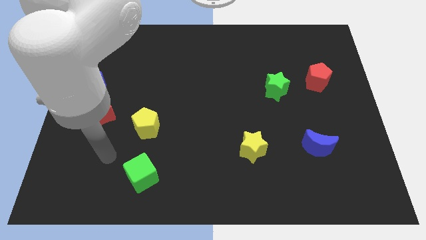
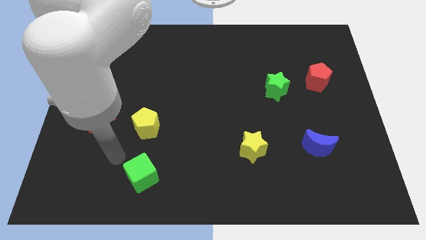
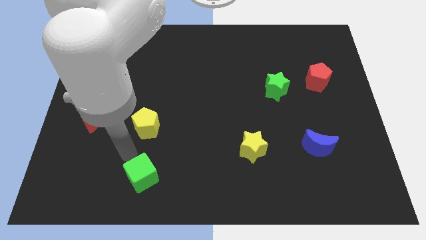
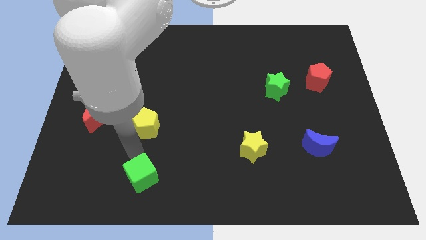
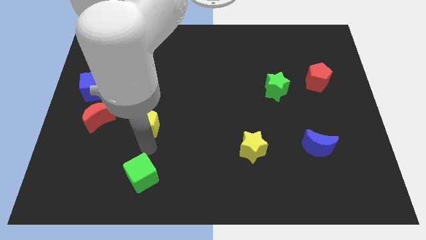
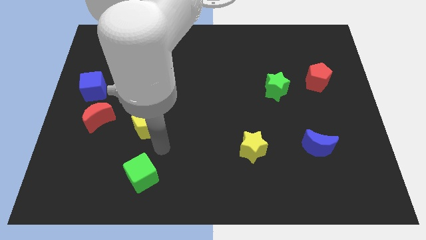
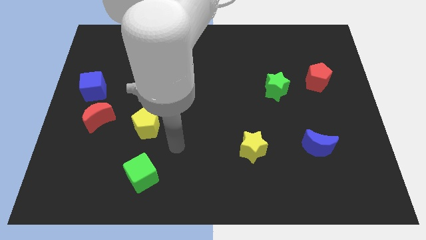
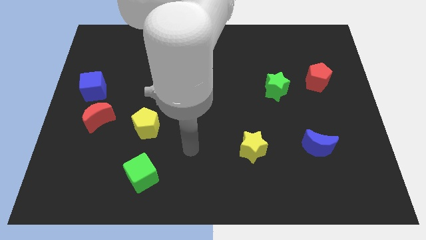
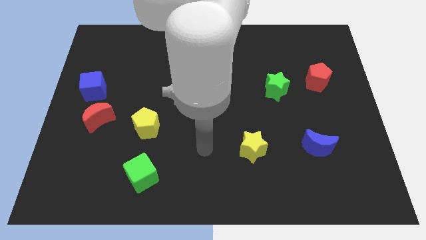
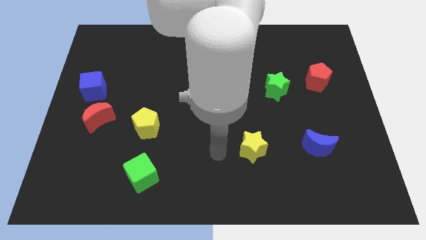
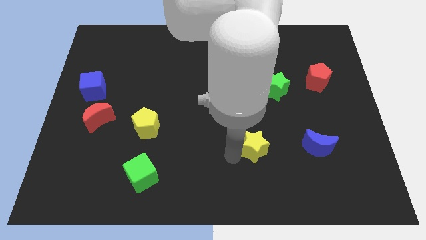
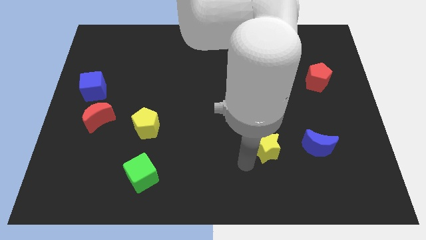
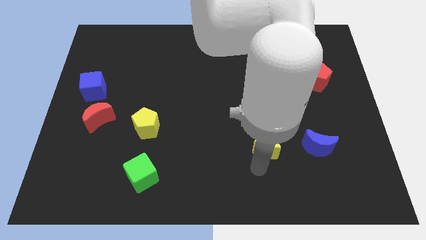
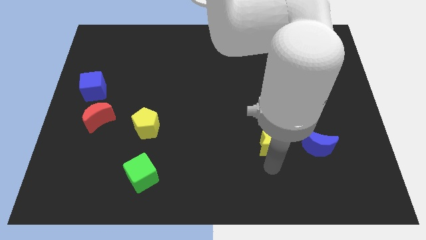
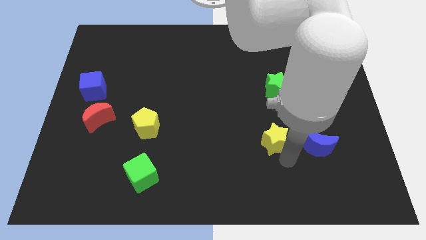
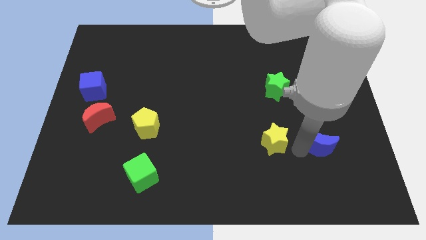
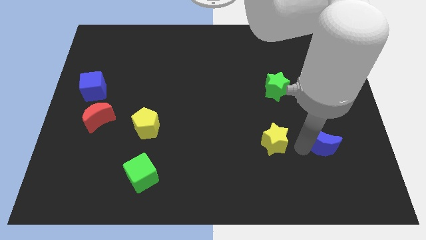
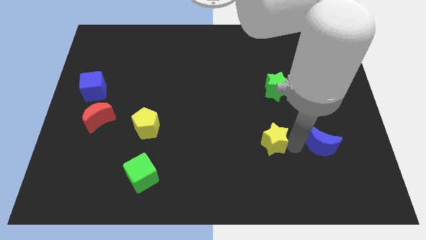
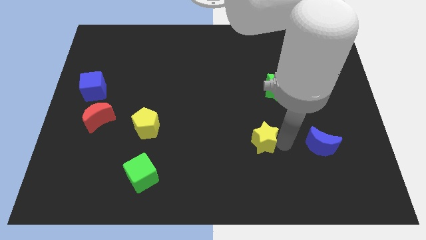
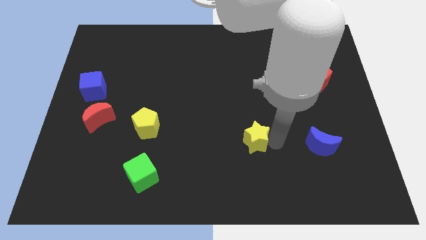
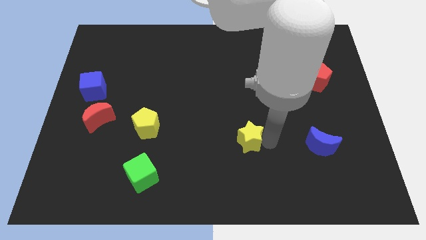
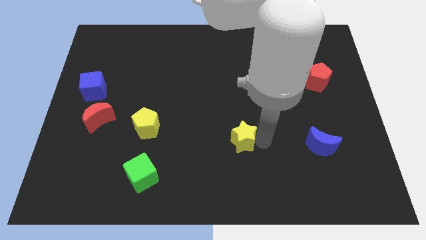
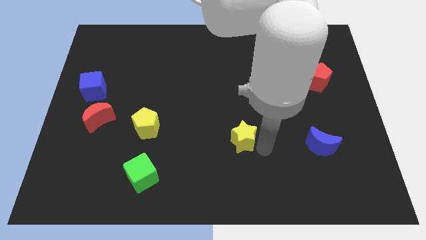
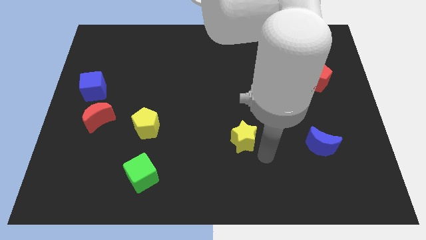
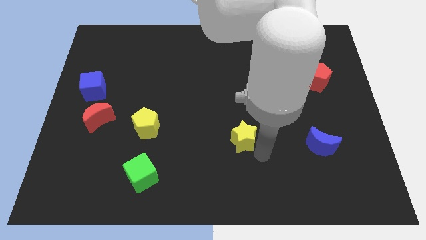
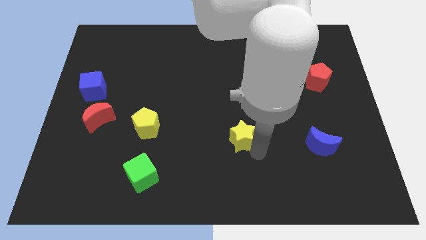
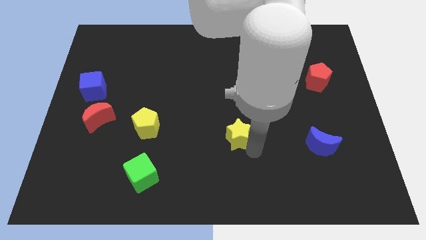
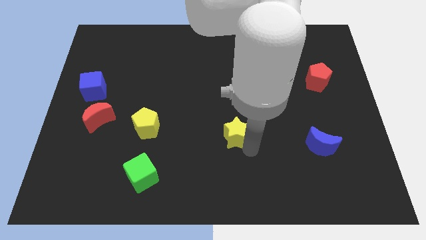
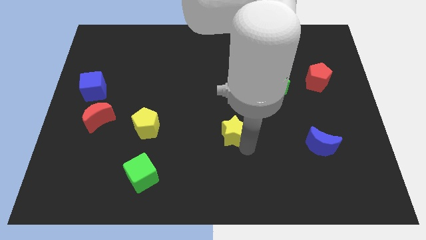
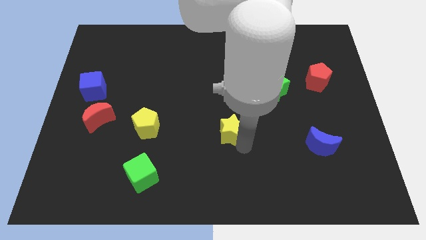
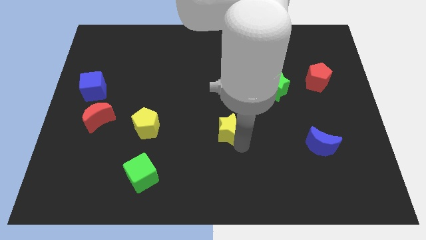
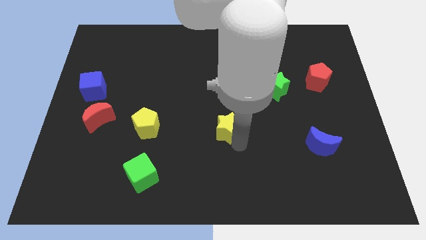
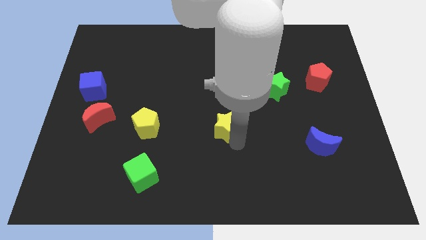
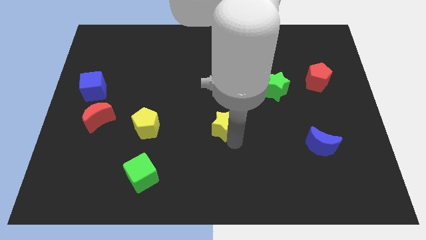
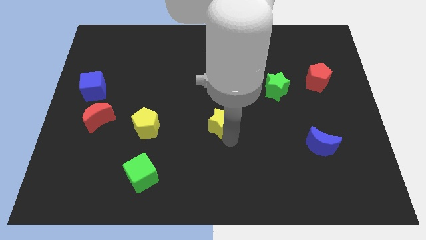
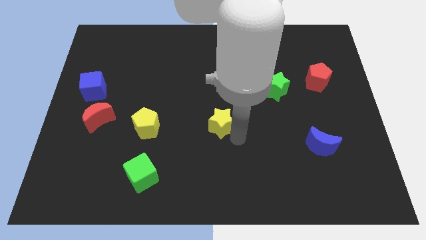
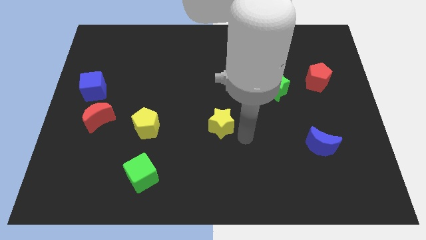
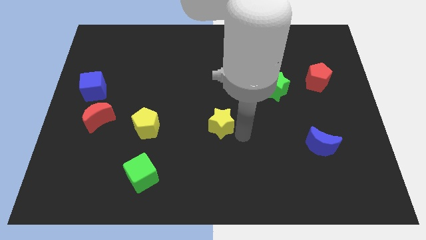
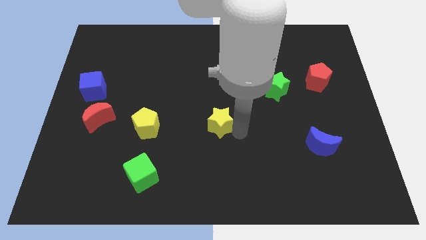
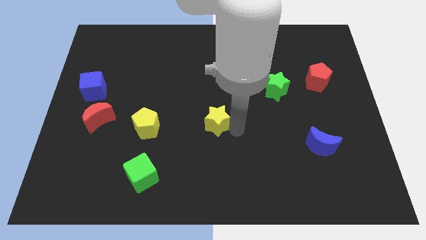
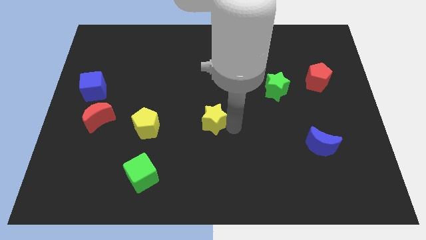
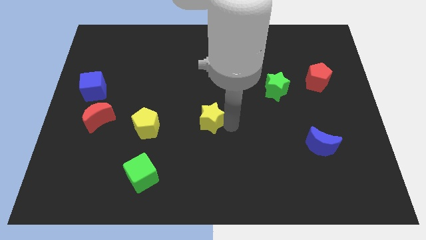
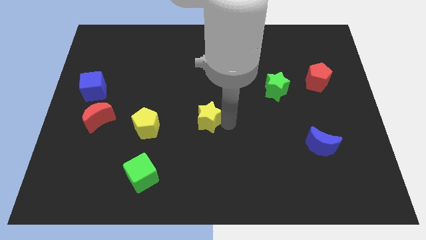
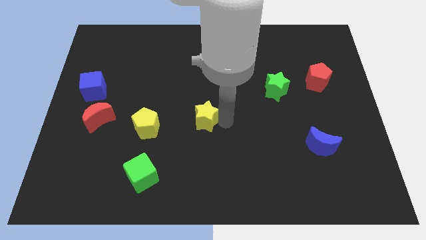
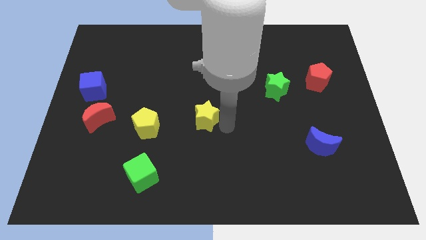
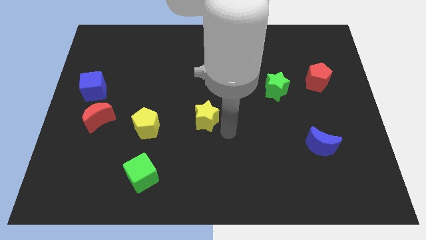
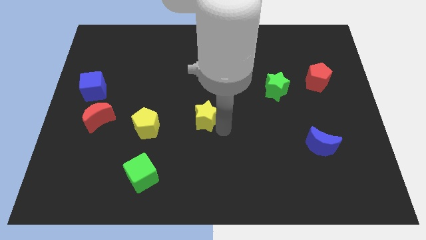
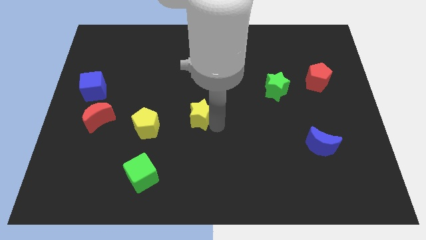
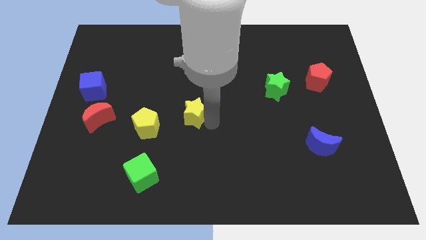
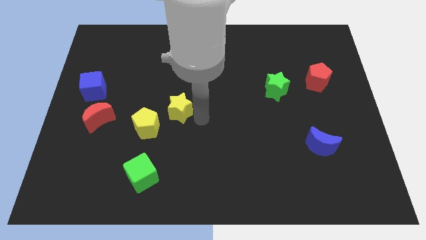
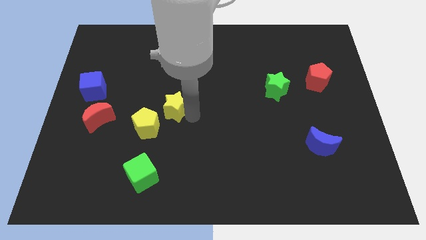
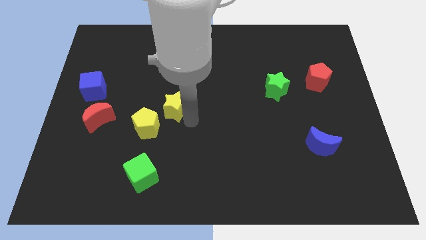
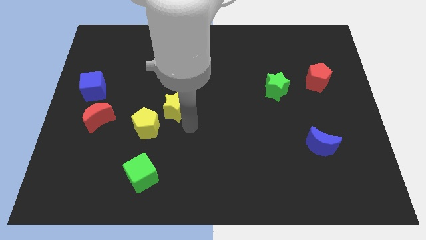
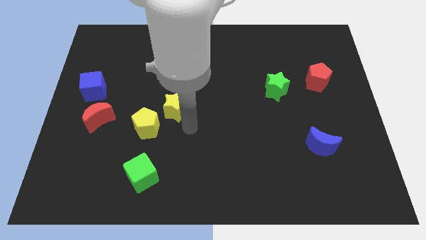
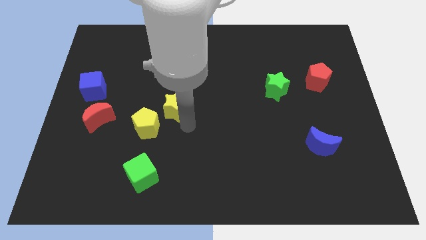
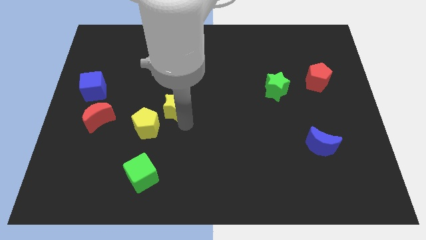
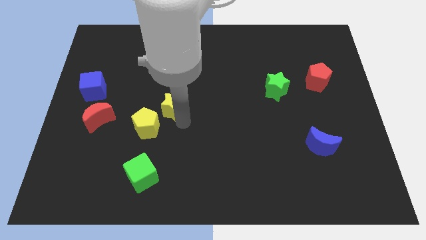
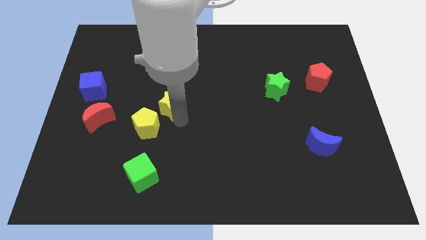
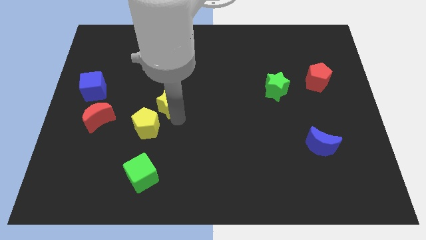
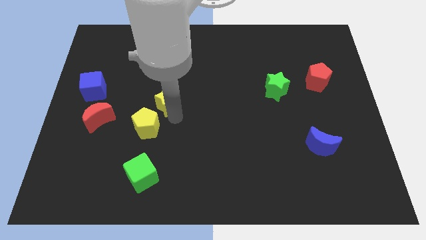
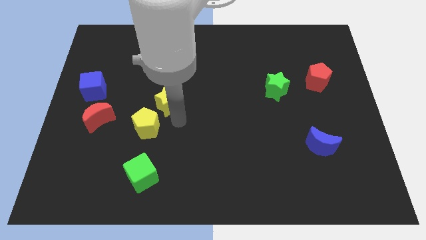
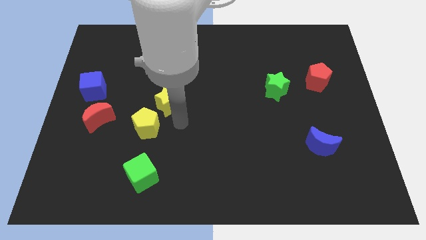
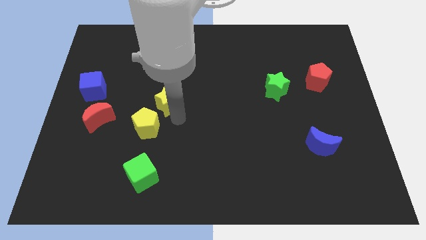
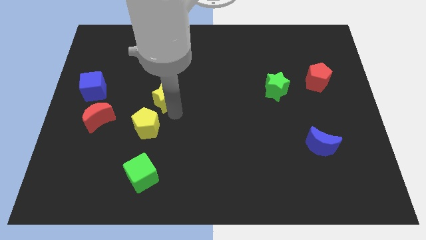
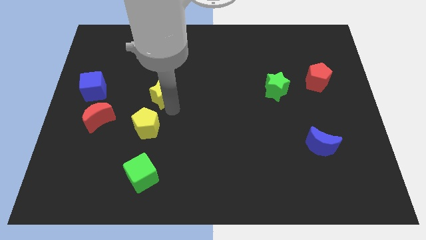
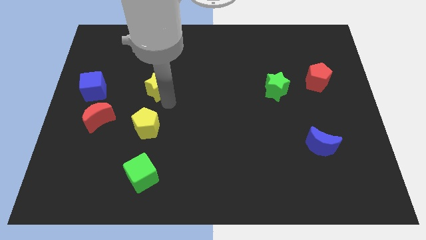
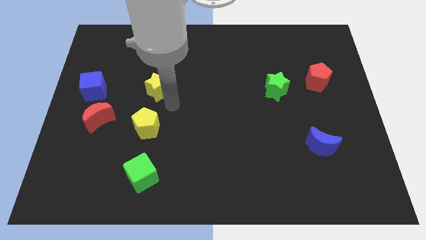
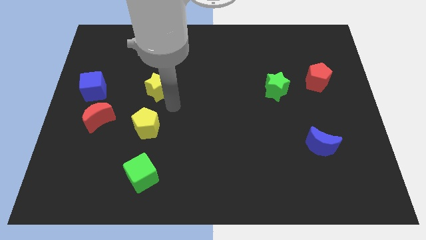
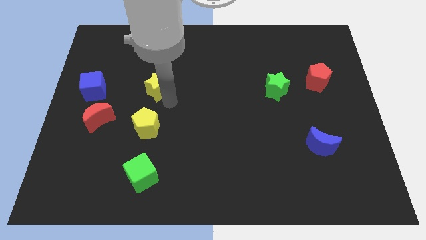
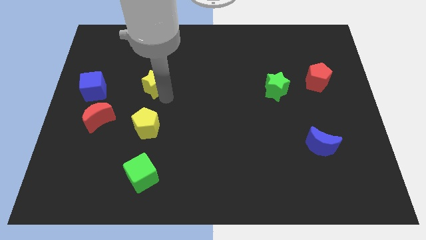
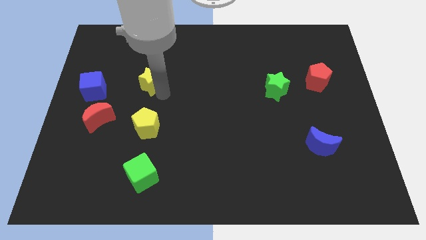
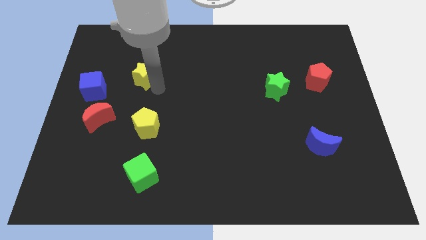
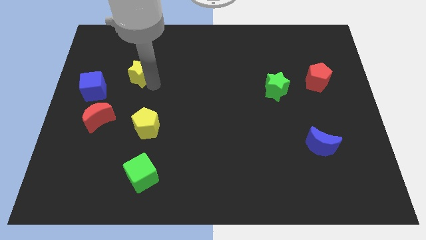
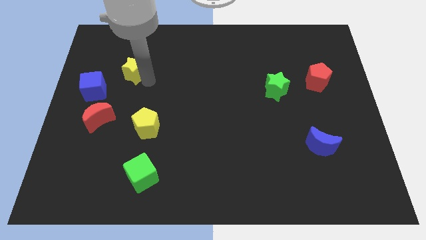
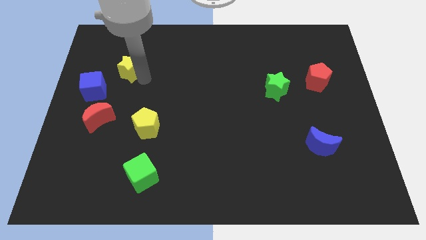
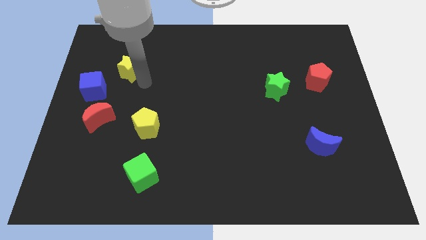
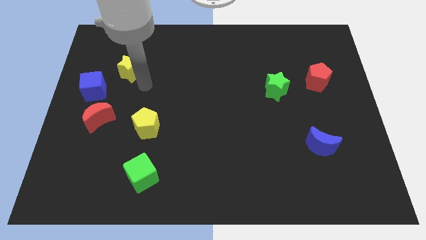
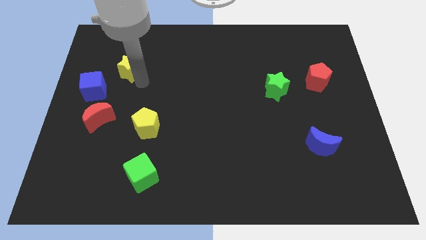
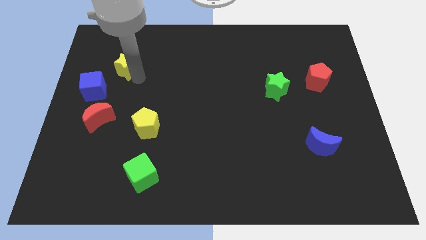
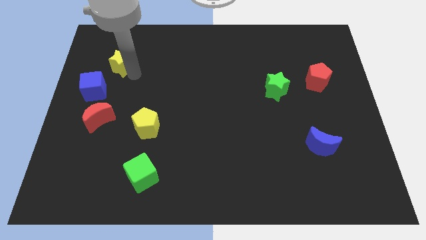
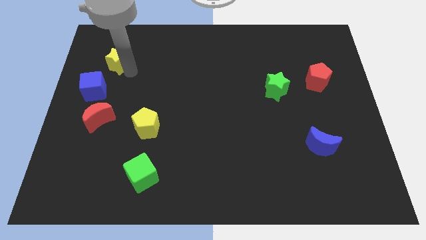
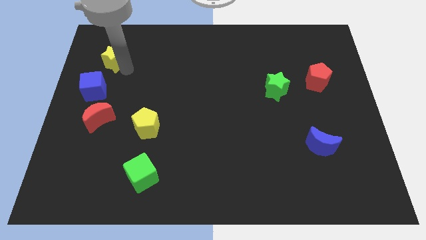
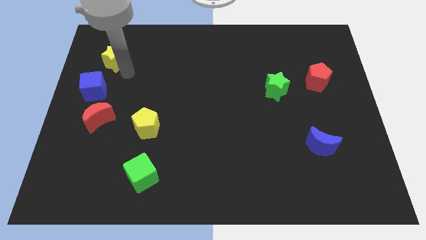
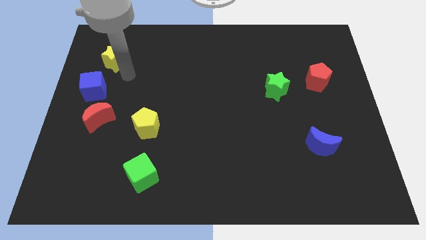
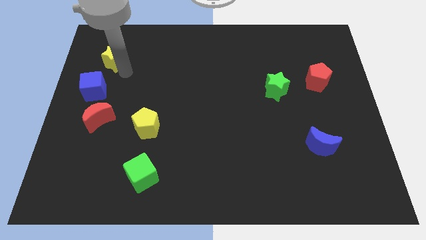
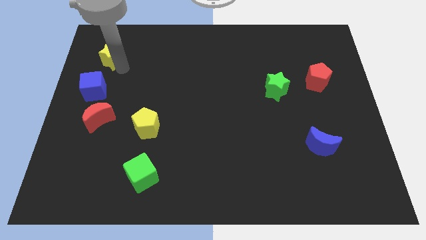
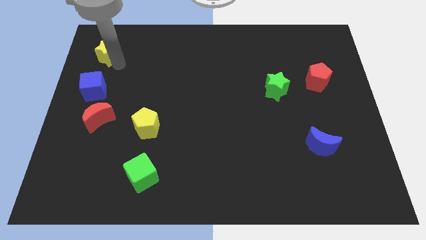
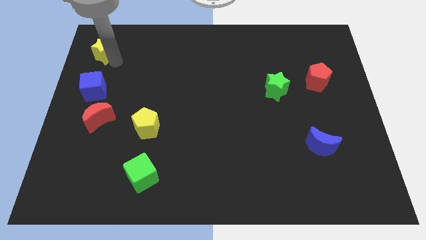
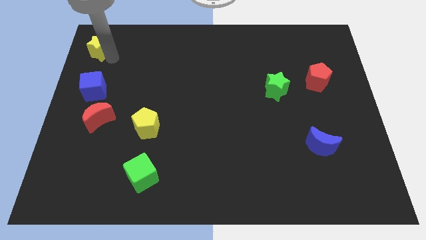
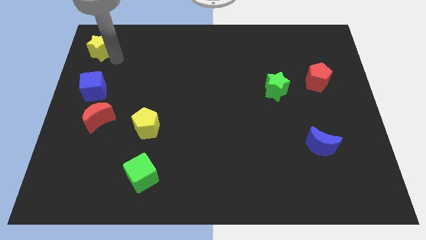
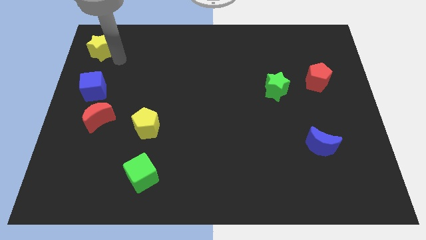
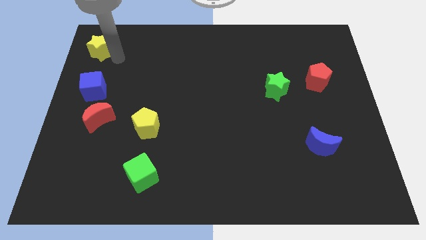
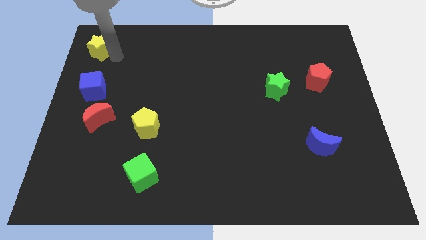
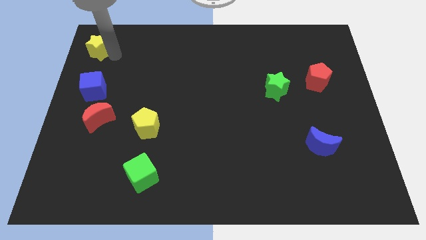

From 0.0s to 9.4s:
slide the yellow star to the top left
